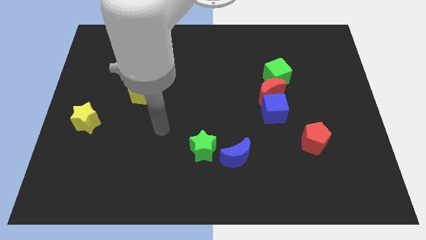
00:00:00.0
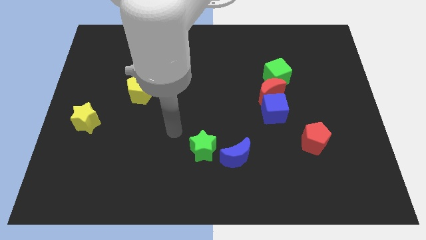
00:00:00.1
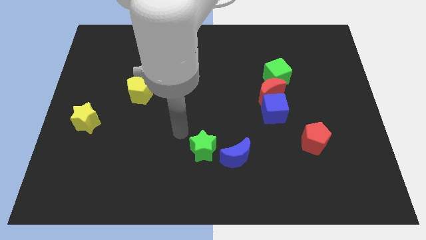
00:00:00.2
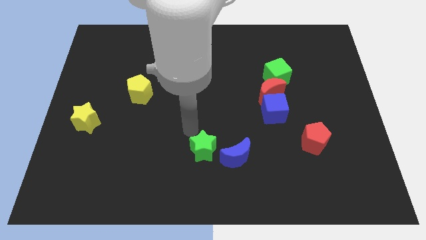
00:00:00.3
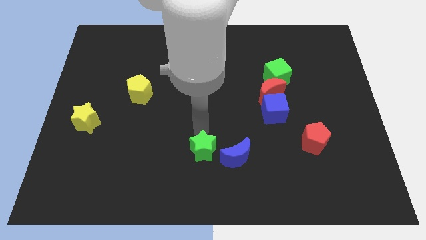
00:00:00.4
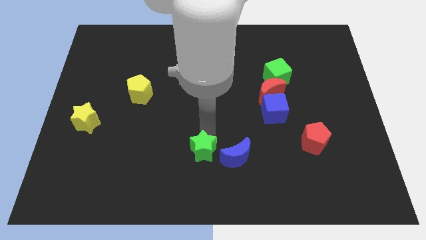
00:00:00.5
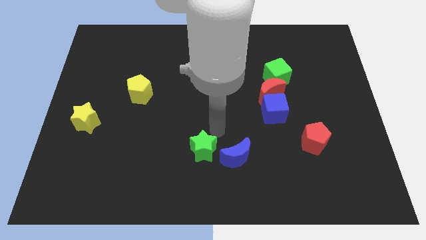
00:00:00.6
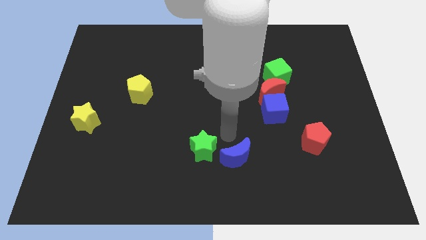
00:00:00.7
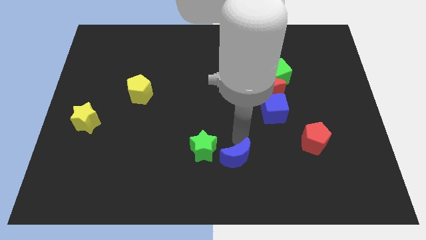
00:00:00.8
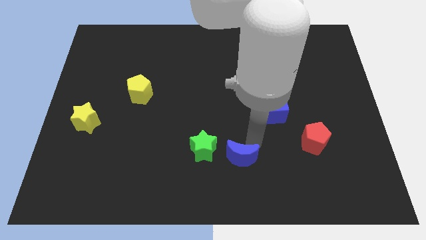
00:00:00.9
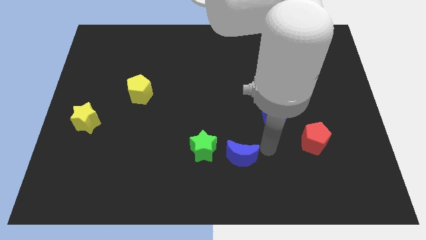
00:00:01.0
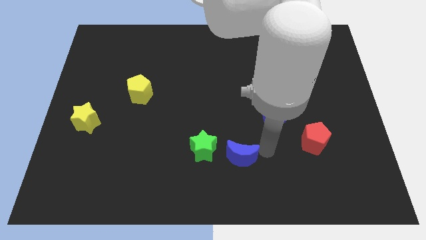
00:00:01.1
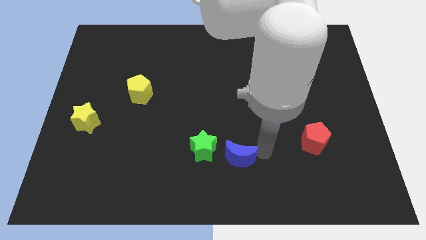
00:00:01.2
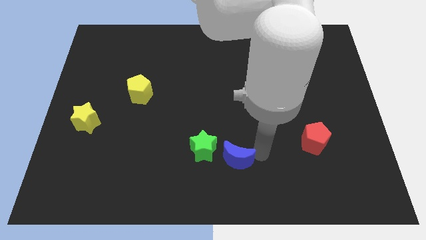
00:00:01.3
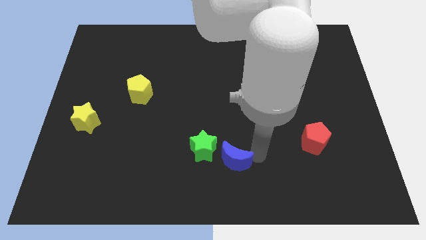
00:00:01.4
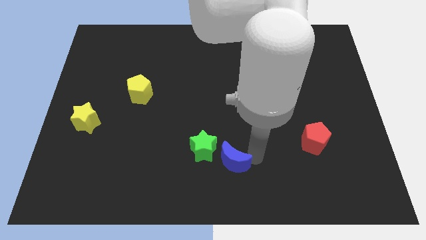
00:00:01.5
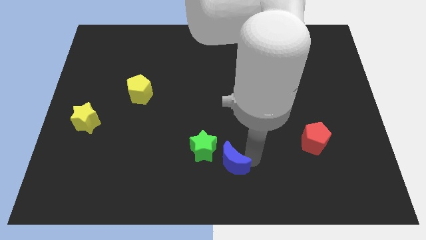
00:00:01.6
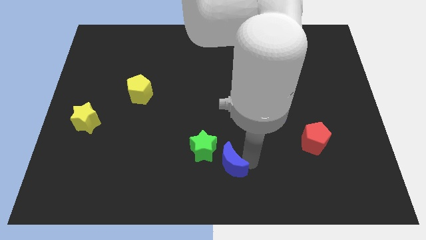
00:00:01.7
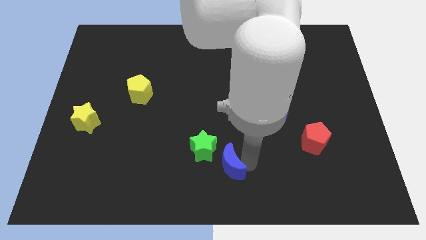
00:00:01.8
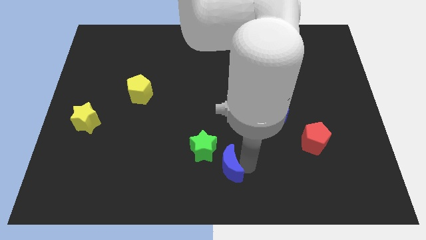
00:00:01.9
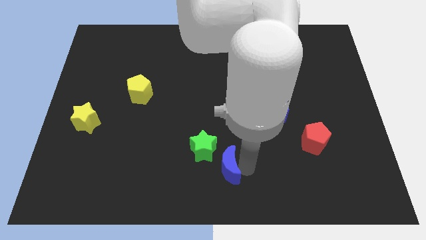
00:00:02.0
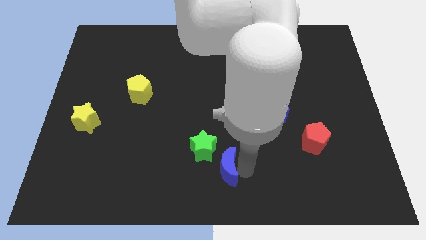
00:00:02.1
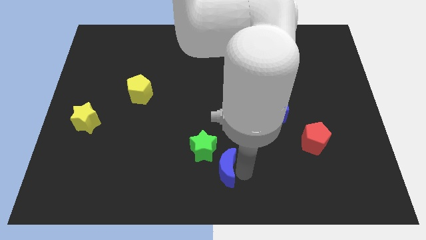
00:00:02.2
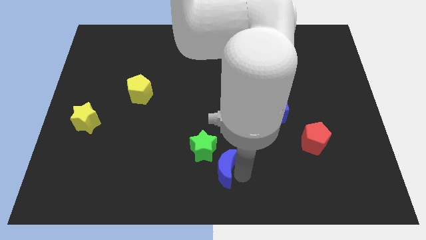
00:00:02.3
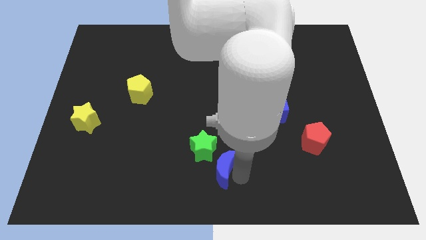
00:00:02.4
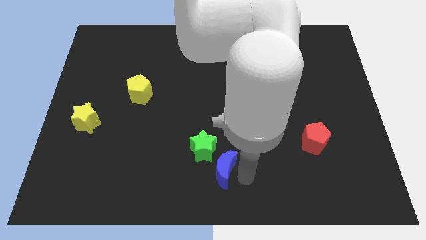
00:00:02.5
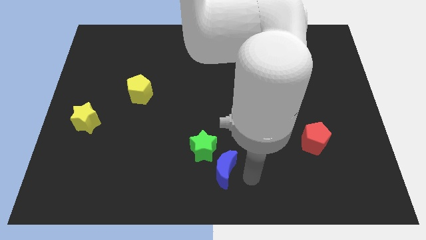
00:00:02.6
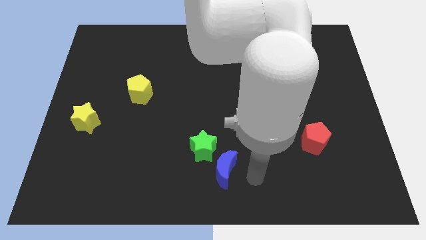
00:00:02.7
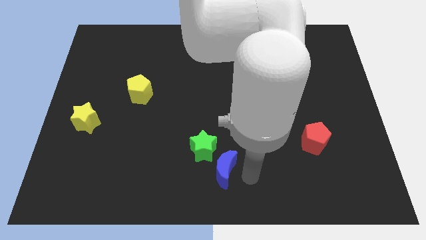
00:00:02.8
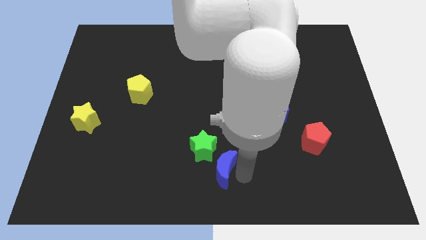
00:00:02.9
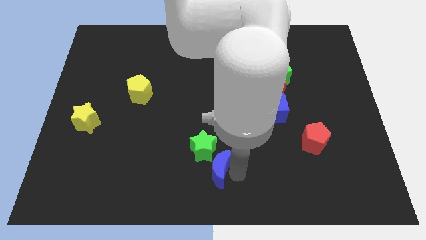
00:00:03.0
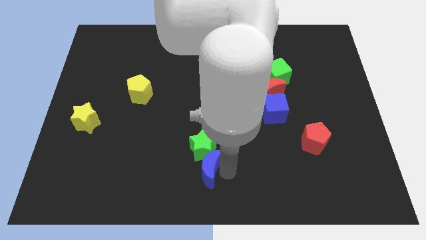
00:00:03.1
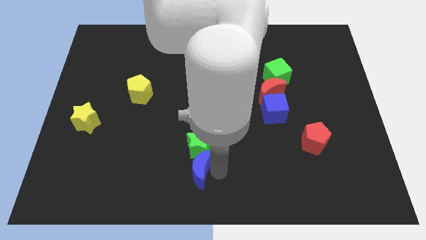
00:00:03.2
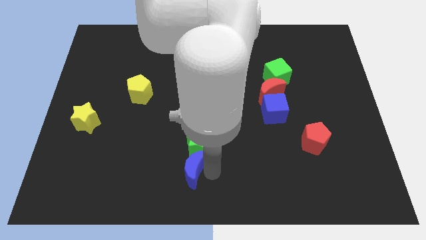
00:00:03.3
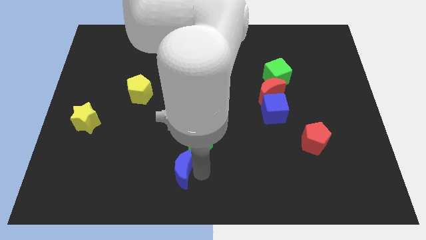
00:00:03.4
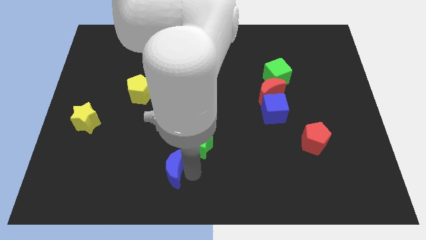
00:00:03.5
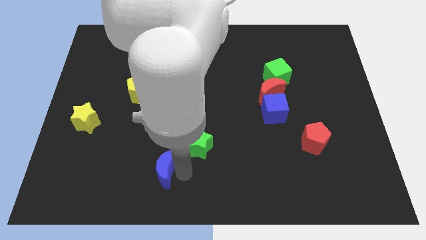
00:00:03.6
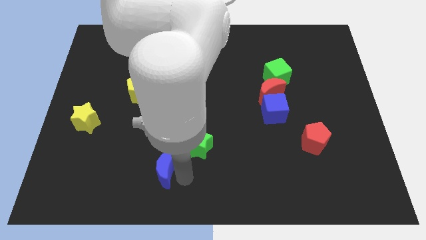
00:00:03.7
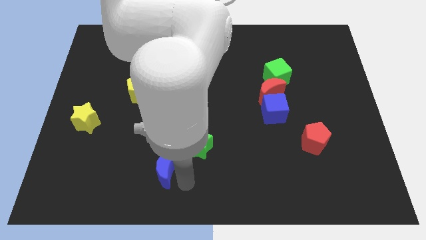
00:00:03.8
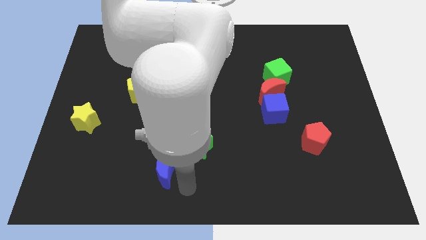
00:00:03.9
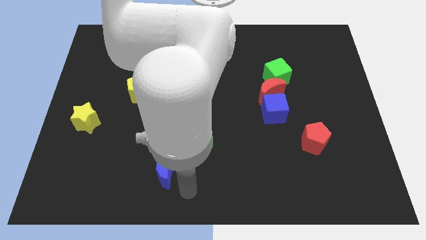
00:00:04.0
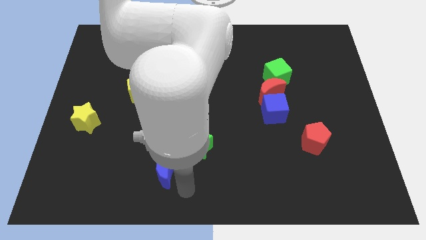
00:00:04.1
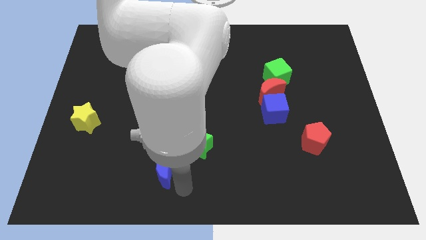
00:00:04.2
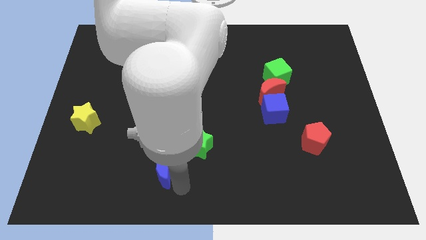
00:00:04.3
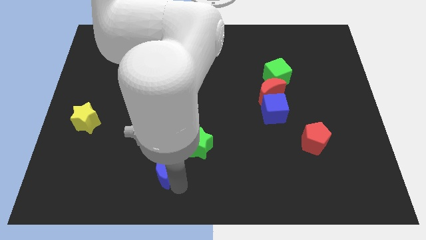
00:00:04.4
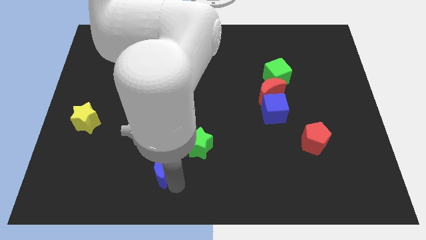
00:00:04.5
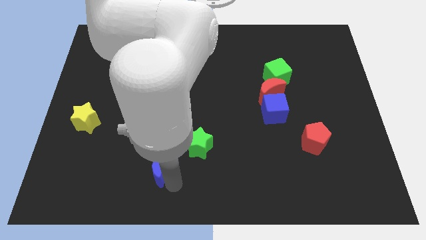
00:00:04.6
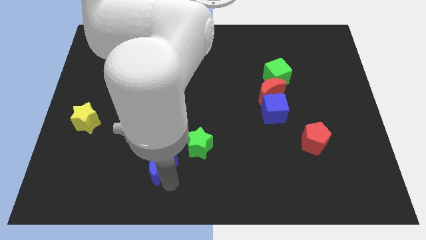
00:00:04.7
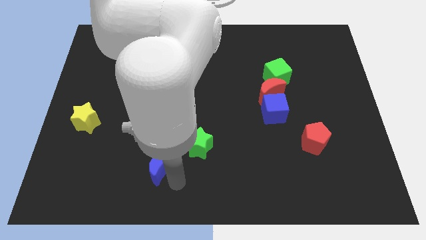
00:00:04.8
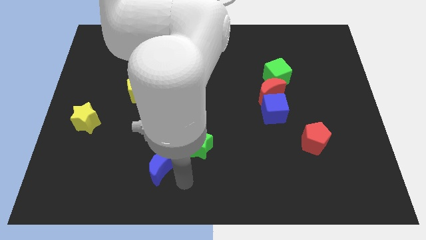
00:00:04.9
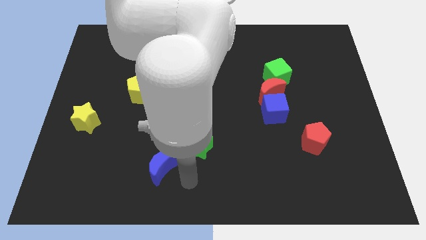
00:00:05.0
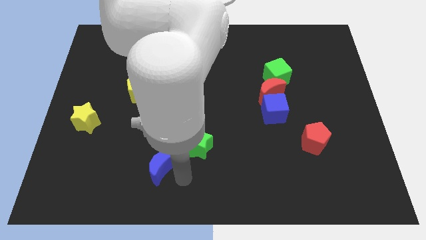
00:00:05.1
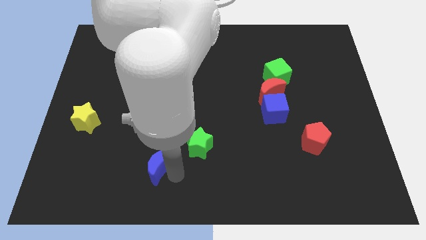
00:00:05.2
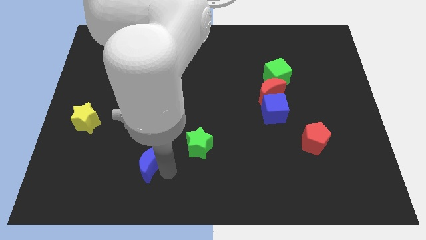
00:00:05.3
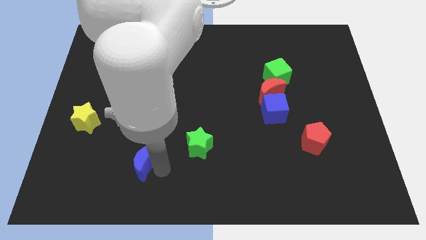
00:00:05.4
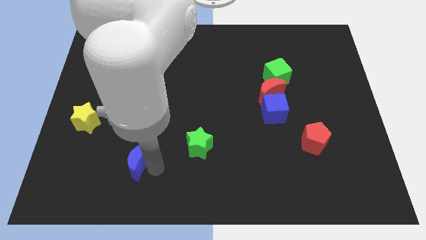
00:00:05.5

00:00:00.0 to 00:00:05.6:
push the blue moon left

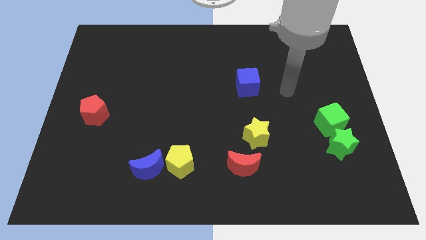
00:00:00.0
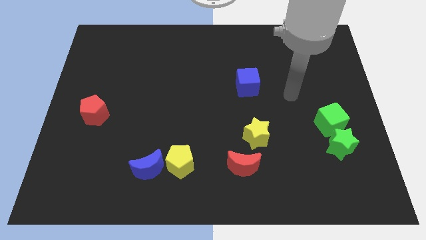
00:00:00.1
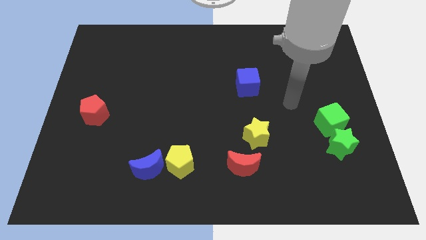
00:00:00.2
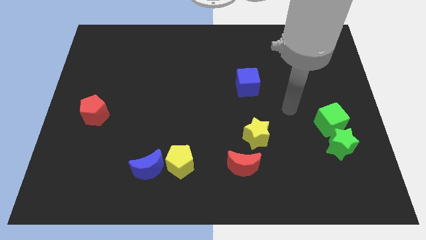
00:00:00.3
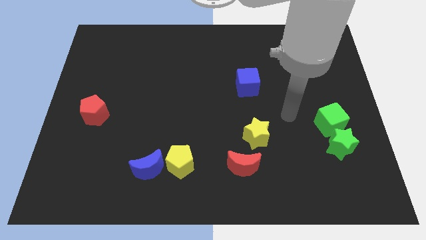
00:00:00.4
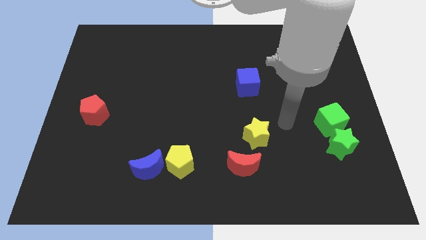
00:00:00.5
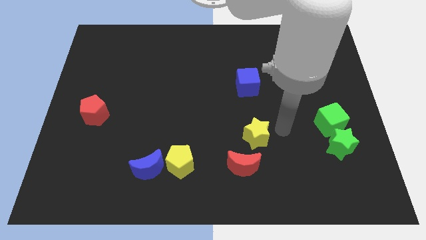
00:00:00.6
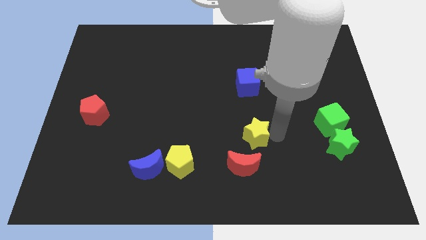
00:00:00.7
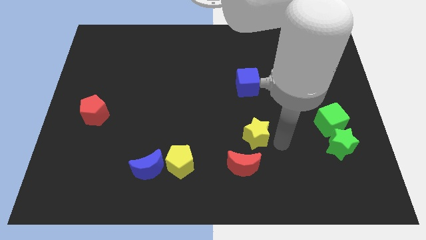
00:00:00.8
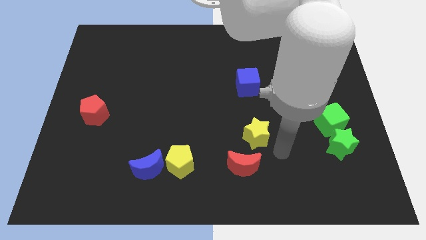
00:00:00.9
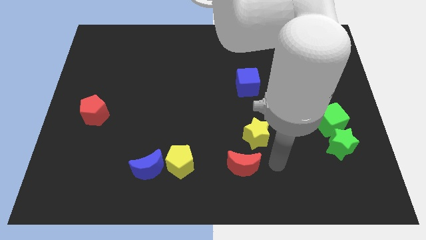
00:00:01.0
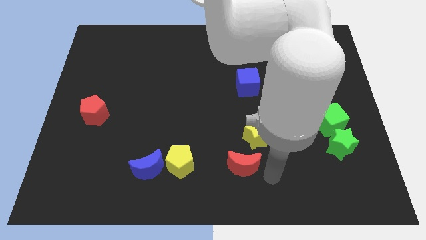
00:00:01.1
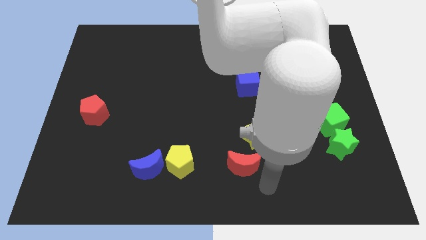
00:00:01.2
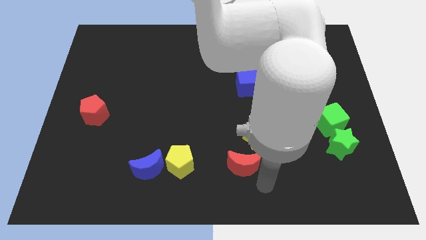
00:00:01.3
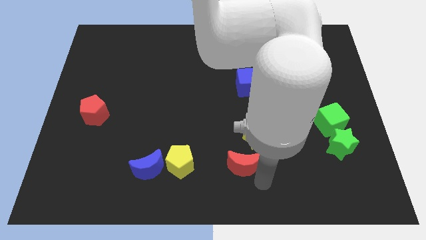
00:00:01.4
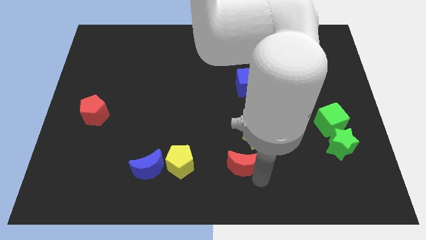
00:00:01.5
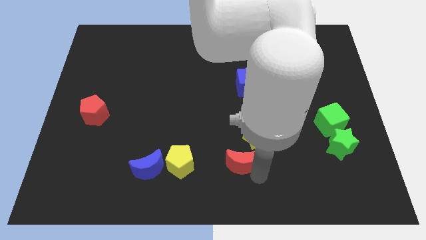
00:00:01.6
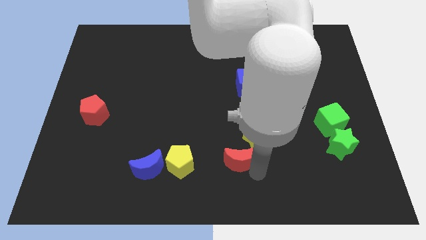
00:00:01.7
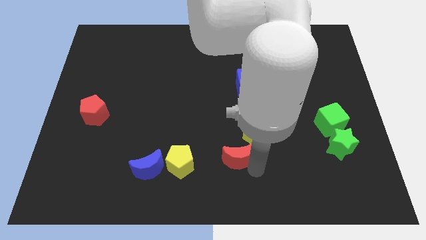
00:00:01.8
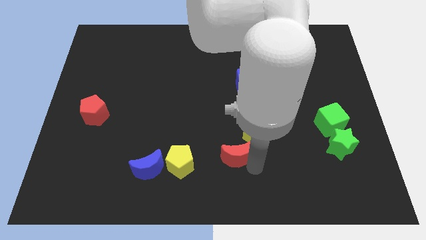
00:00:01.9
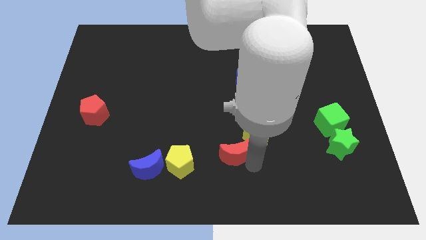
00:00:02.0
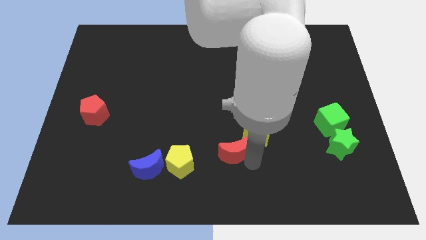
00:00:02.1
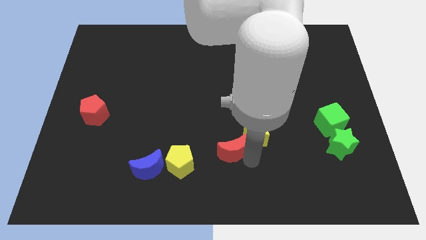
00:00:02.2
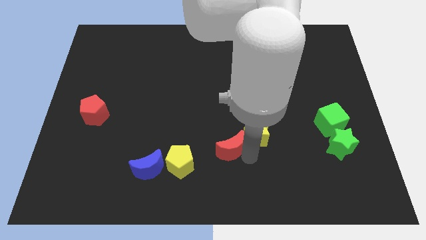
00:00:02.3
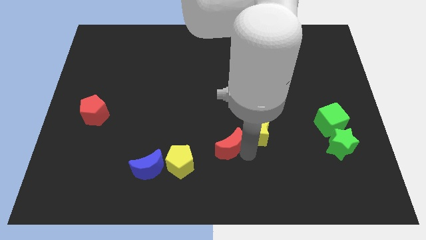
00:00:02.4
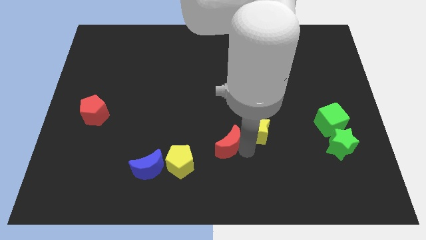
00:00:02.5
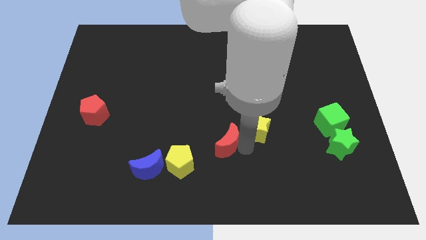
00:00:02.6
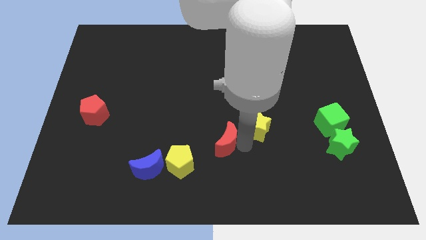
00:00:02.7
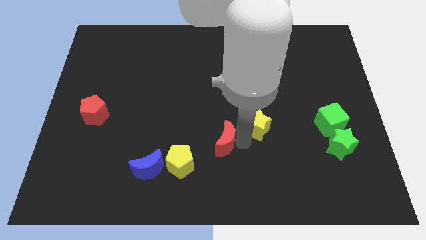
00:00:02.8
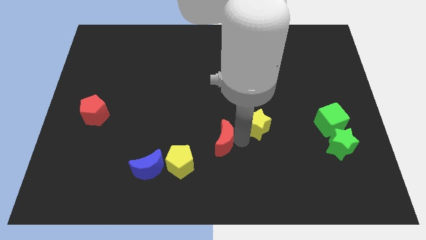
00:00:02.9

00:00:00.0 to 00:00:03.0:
push the red moon diagonally up and to the left a little
